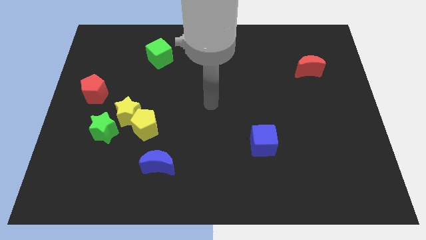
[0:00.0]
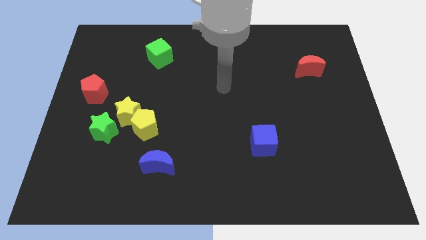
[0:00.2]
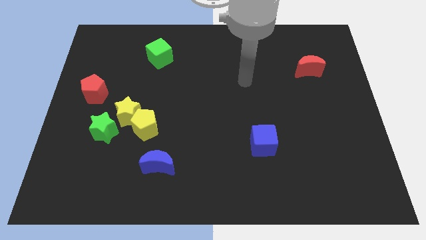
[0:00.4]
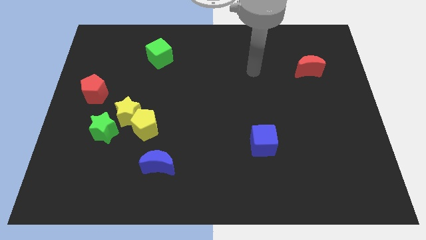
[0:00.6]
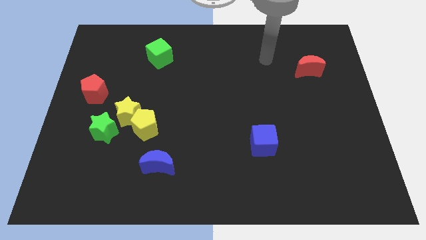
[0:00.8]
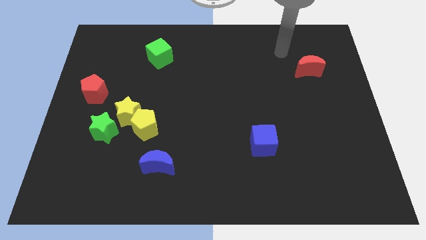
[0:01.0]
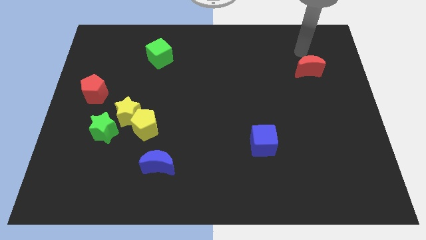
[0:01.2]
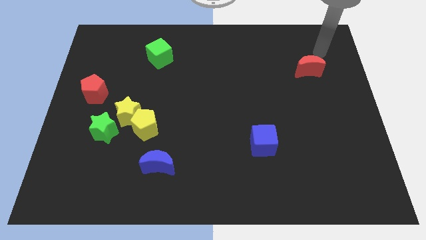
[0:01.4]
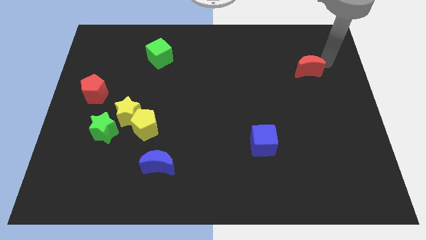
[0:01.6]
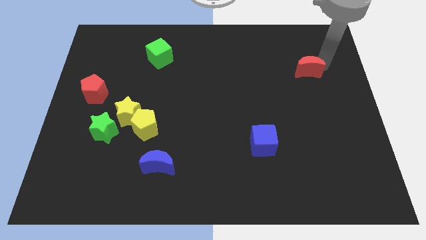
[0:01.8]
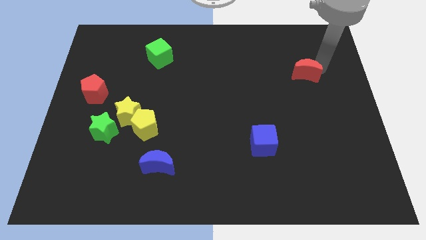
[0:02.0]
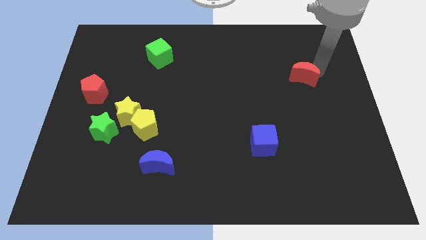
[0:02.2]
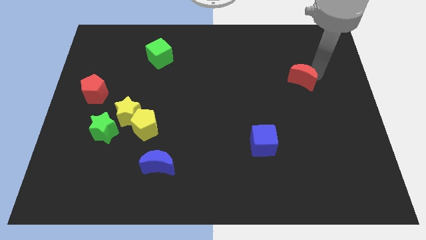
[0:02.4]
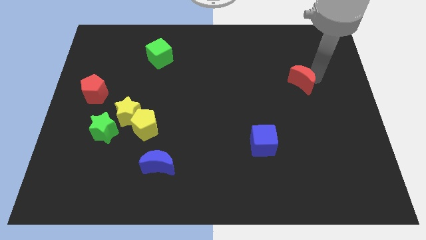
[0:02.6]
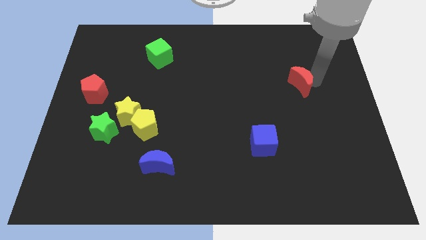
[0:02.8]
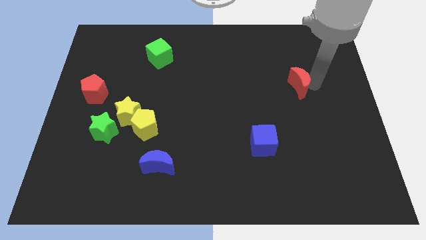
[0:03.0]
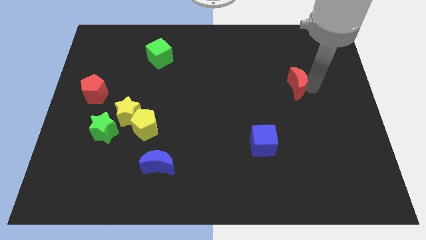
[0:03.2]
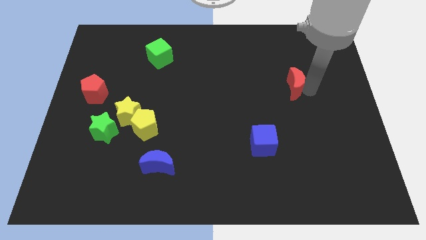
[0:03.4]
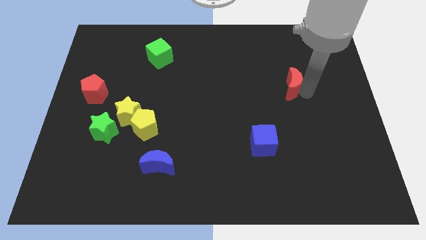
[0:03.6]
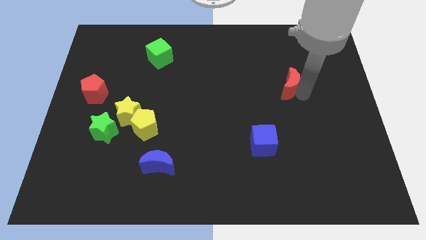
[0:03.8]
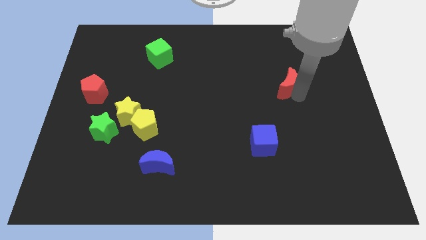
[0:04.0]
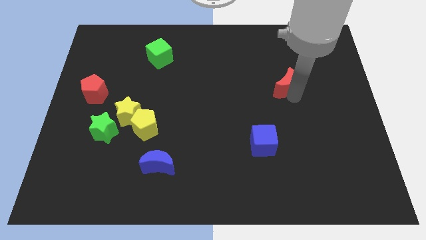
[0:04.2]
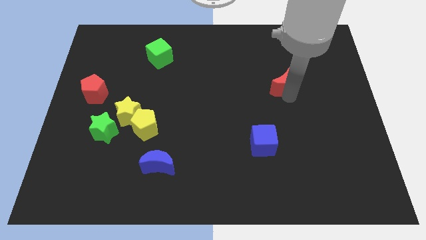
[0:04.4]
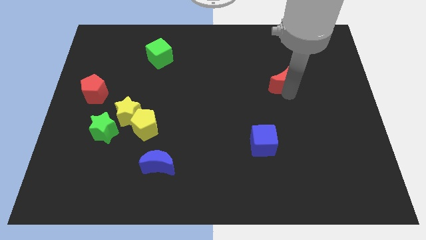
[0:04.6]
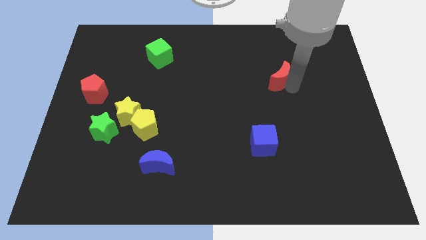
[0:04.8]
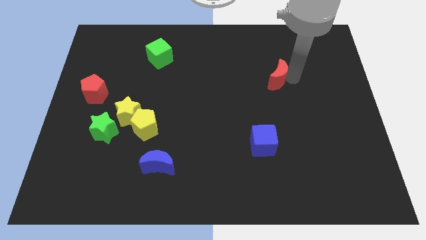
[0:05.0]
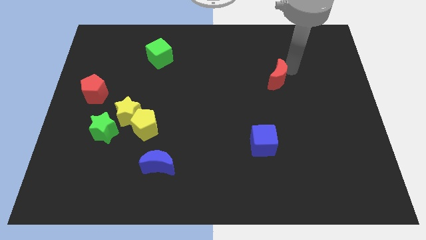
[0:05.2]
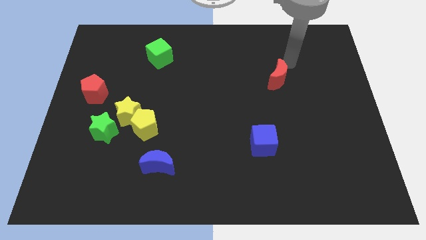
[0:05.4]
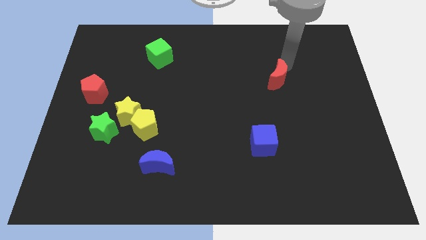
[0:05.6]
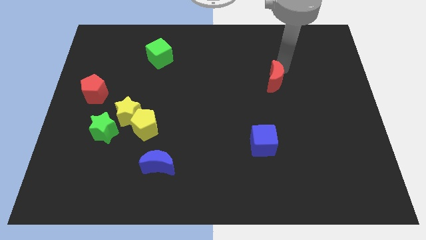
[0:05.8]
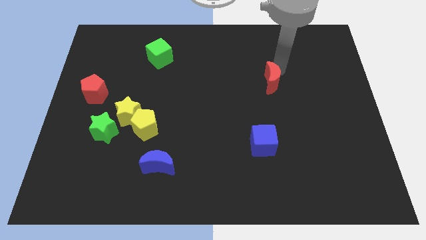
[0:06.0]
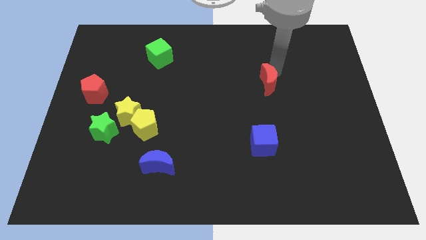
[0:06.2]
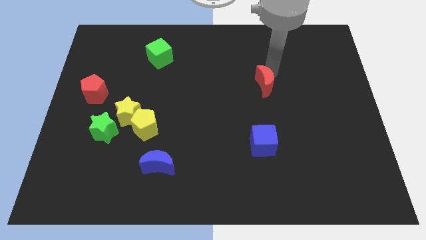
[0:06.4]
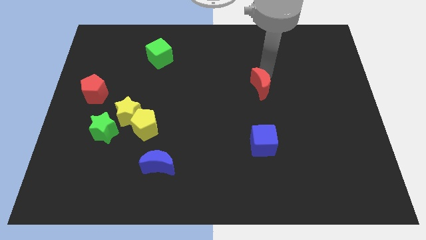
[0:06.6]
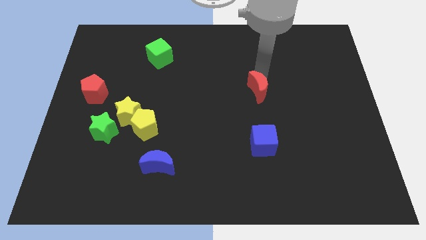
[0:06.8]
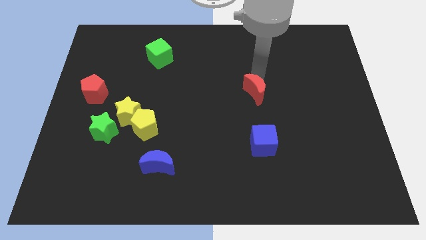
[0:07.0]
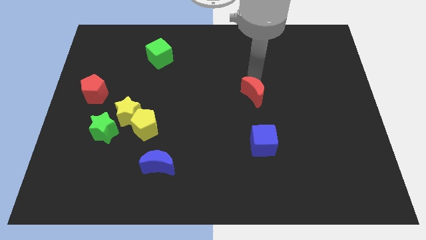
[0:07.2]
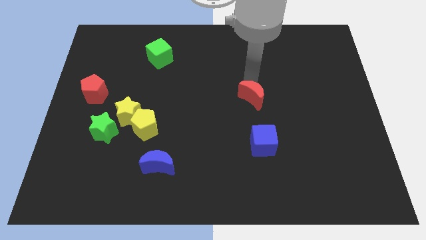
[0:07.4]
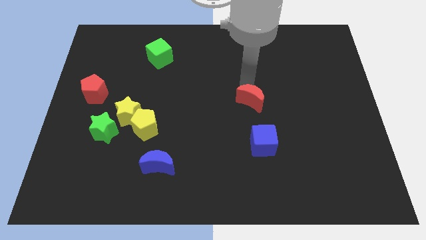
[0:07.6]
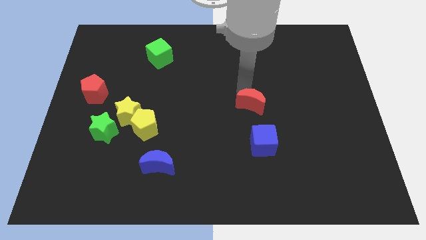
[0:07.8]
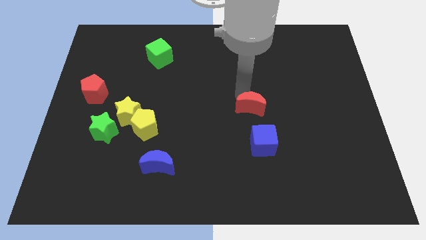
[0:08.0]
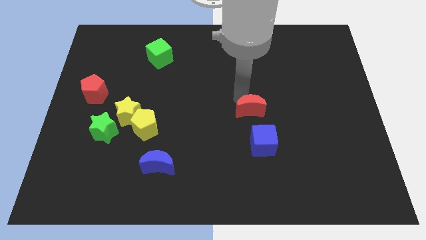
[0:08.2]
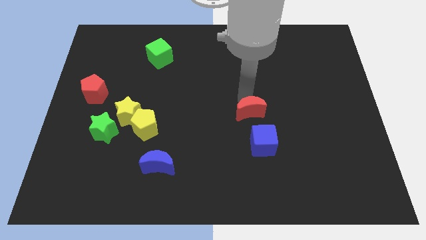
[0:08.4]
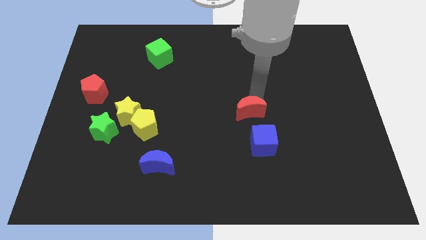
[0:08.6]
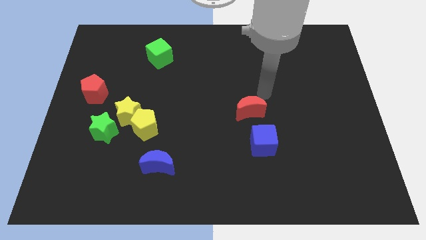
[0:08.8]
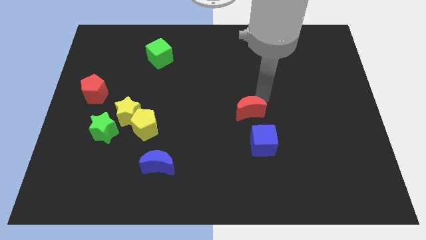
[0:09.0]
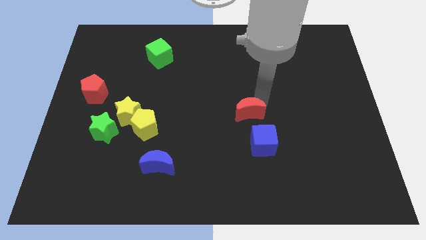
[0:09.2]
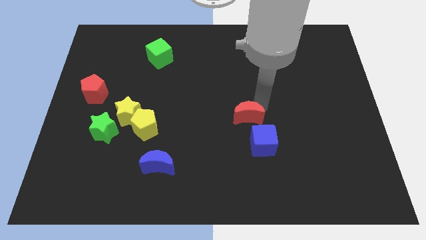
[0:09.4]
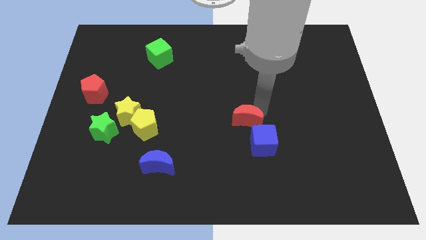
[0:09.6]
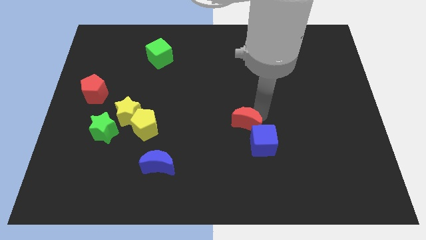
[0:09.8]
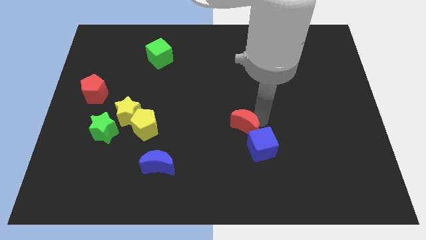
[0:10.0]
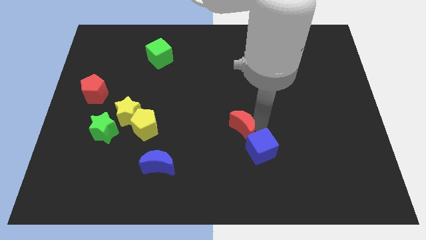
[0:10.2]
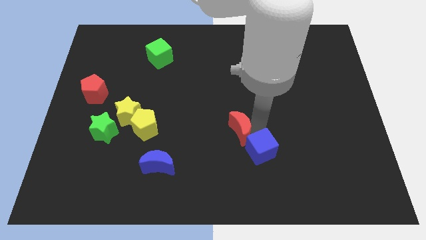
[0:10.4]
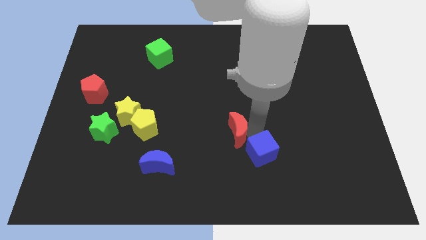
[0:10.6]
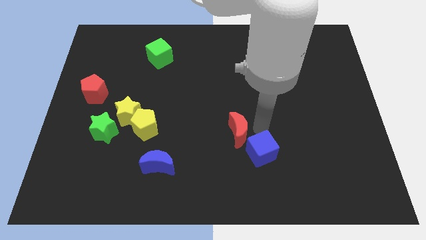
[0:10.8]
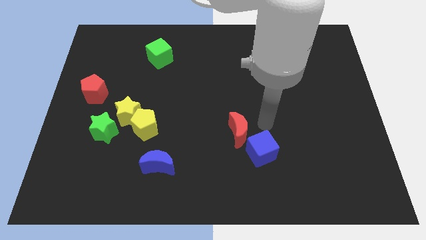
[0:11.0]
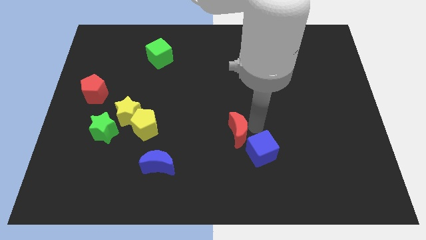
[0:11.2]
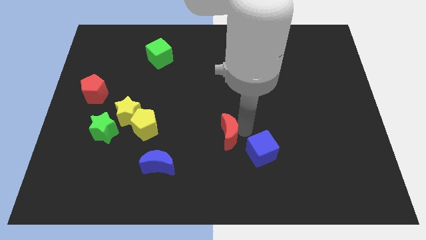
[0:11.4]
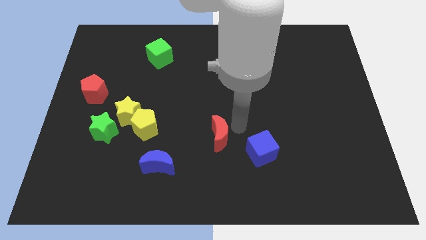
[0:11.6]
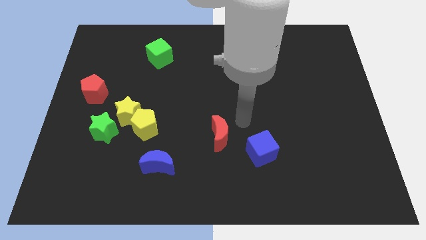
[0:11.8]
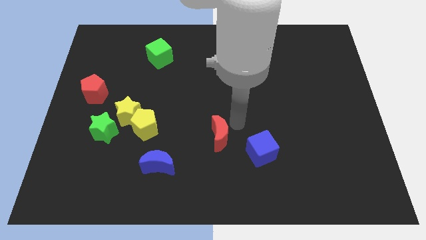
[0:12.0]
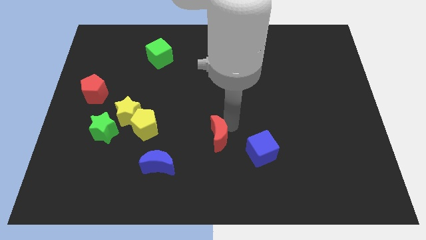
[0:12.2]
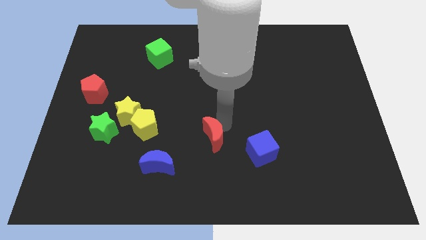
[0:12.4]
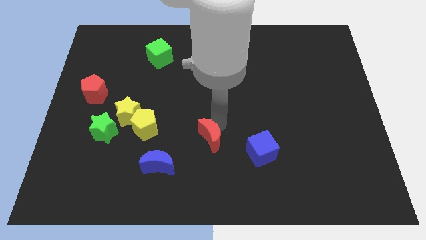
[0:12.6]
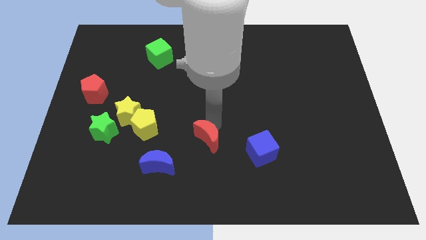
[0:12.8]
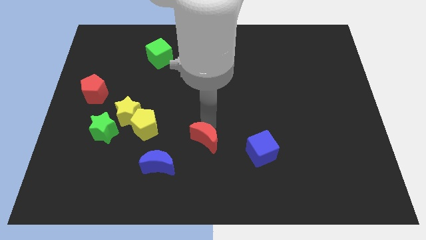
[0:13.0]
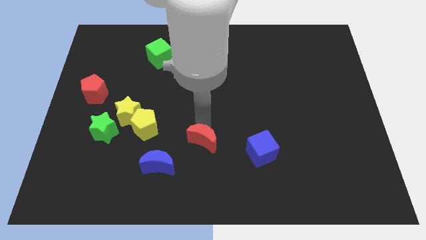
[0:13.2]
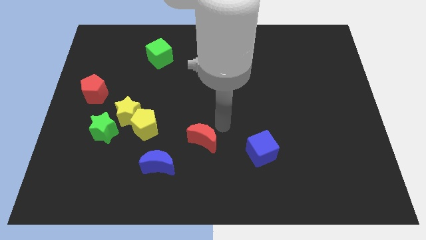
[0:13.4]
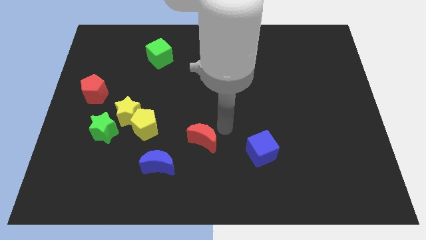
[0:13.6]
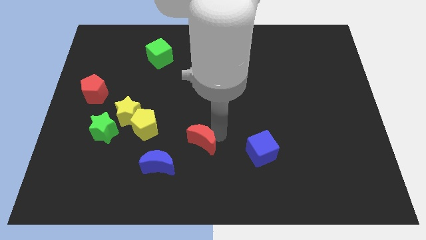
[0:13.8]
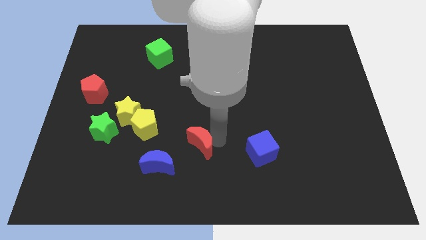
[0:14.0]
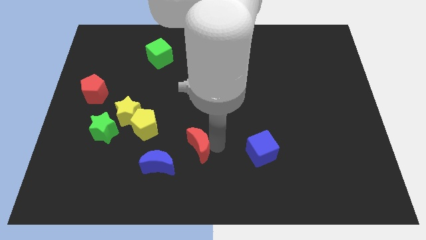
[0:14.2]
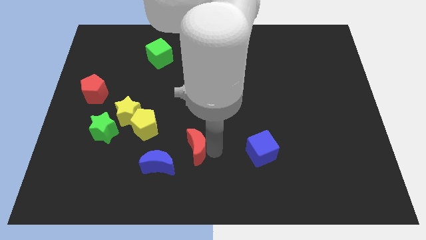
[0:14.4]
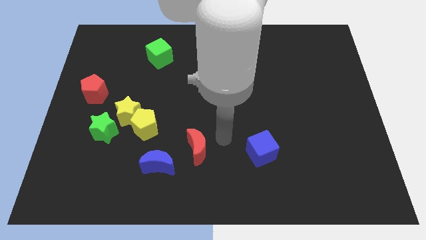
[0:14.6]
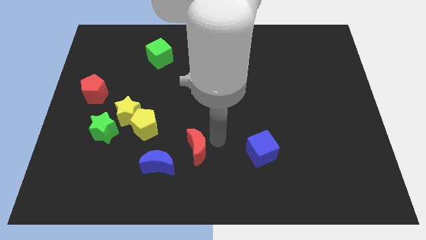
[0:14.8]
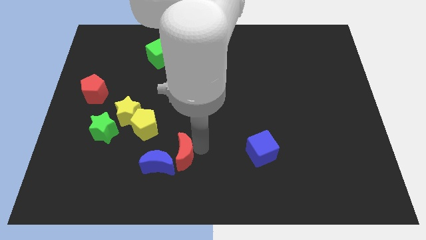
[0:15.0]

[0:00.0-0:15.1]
move the red moon towards the blue moon

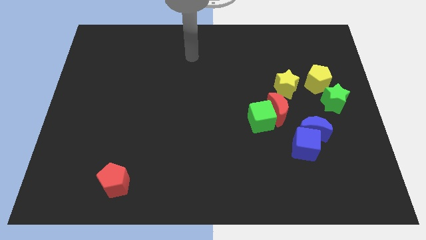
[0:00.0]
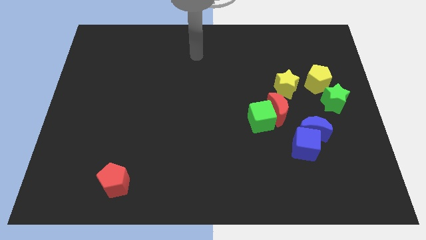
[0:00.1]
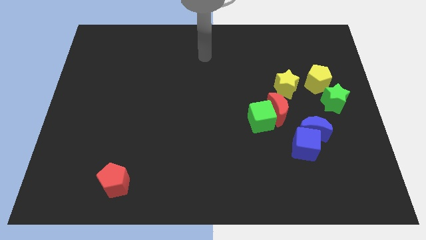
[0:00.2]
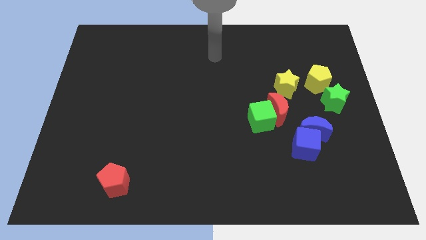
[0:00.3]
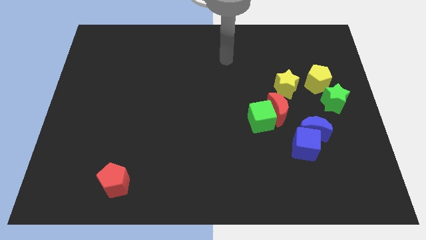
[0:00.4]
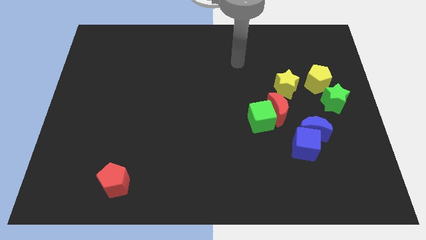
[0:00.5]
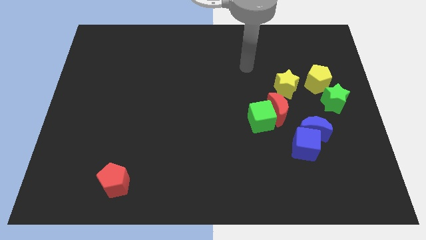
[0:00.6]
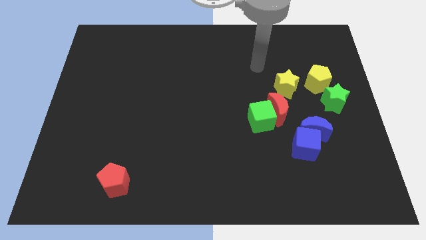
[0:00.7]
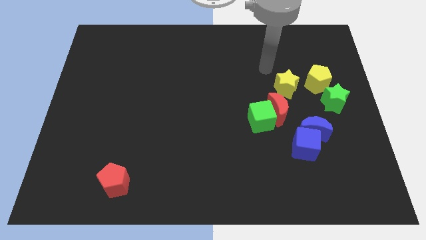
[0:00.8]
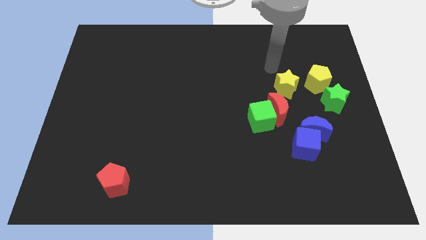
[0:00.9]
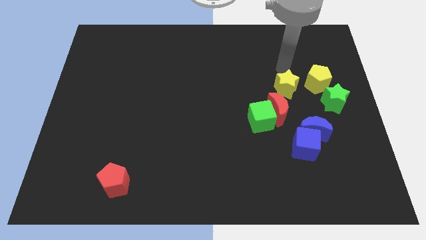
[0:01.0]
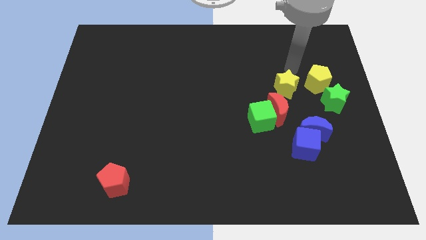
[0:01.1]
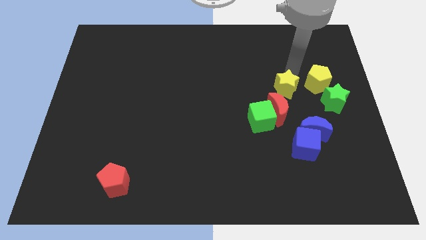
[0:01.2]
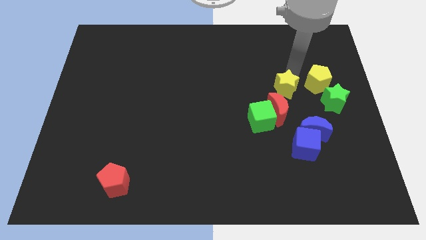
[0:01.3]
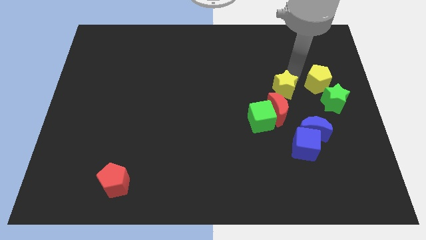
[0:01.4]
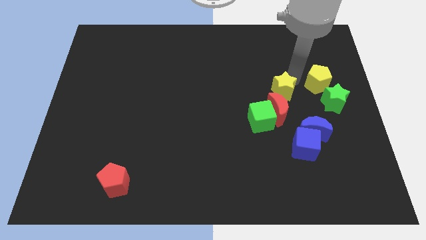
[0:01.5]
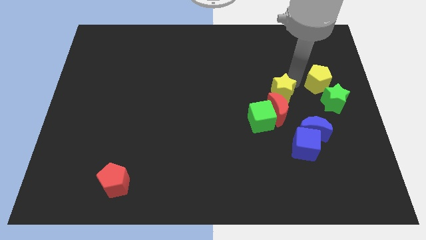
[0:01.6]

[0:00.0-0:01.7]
put the yellow star next to the red moon
